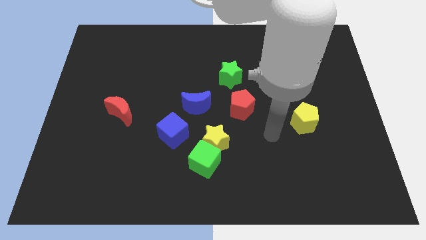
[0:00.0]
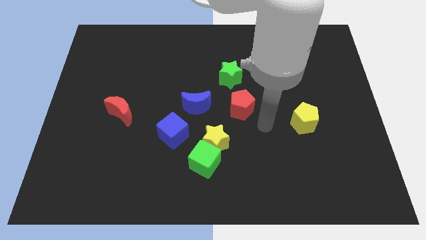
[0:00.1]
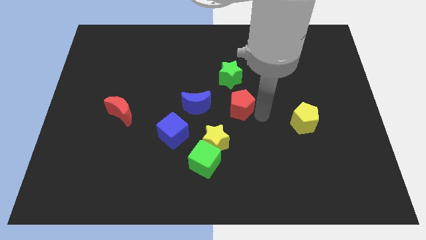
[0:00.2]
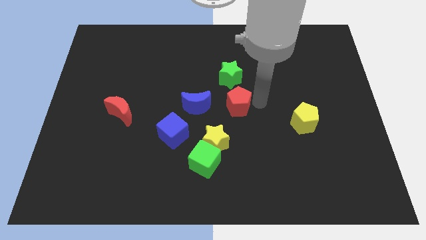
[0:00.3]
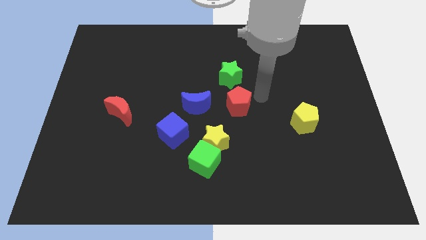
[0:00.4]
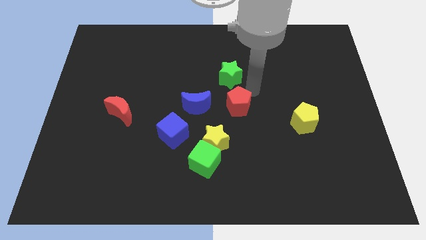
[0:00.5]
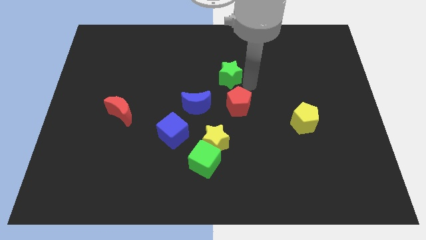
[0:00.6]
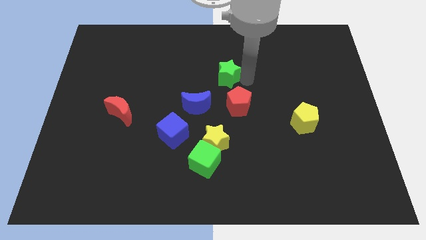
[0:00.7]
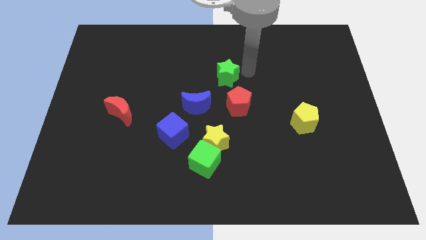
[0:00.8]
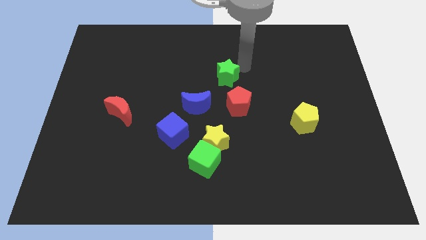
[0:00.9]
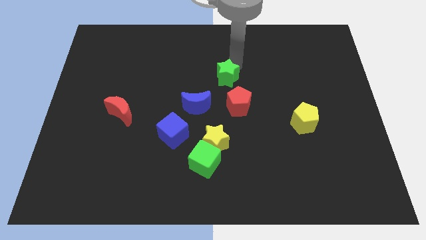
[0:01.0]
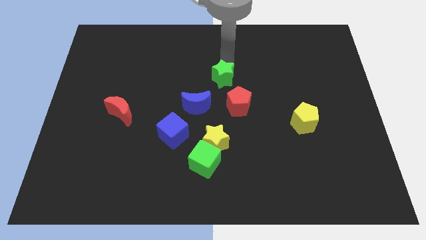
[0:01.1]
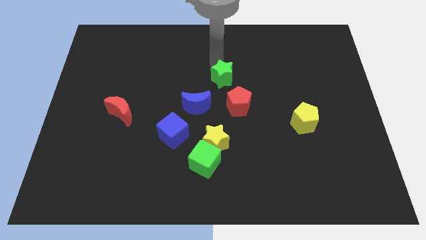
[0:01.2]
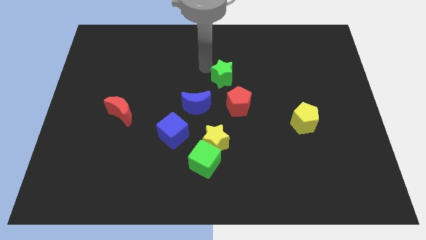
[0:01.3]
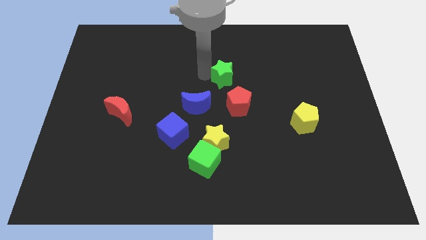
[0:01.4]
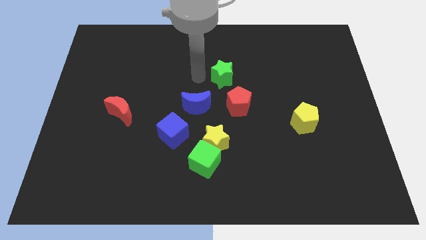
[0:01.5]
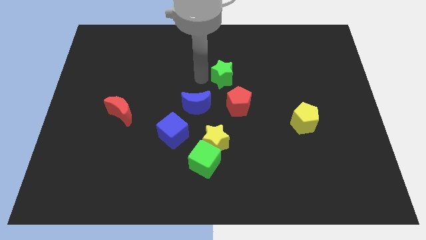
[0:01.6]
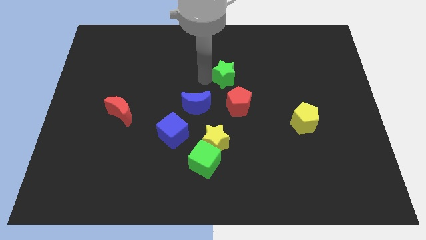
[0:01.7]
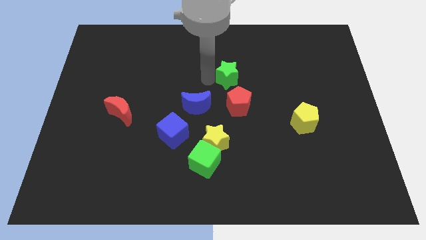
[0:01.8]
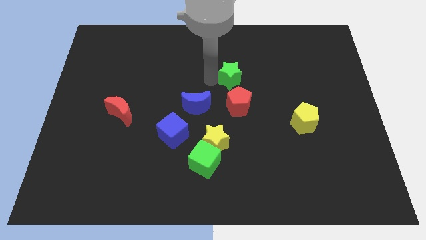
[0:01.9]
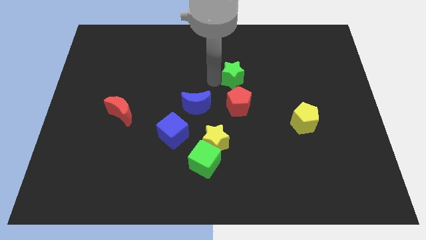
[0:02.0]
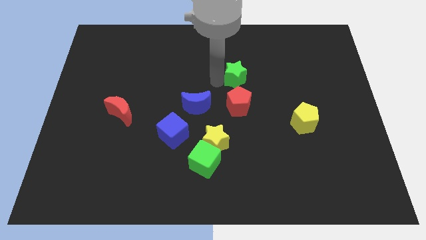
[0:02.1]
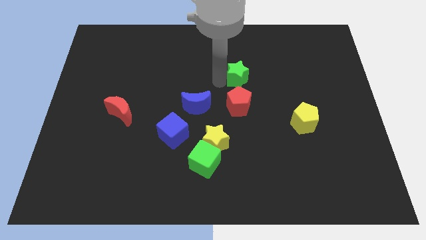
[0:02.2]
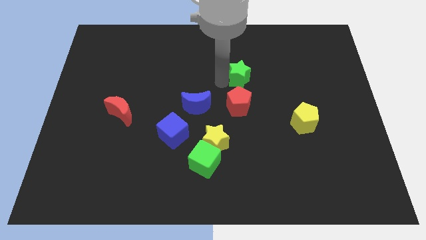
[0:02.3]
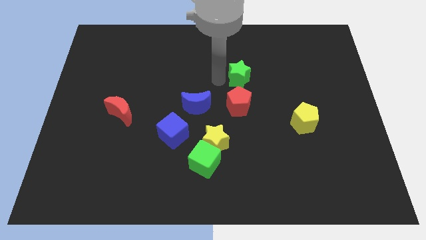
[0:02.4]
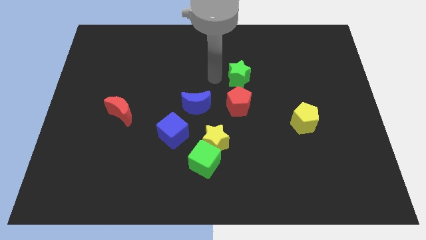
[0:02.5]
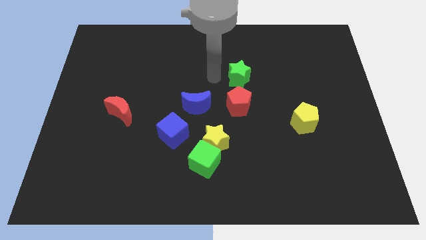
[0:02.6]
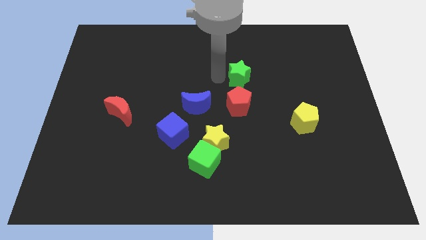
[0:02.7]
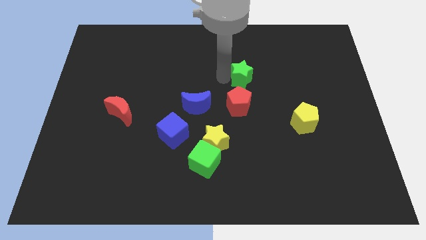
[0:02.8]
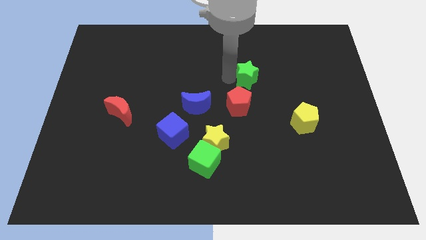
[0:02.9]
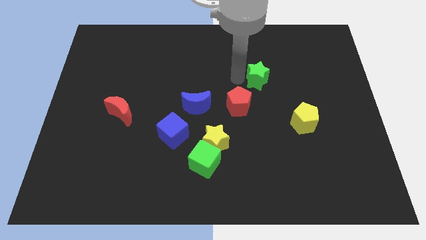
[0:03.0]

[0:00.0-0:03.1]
slide the green star right slightly

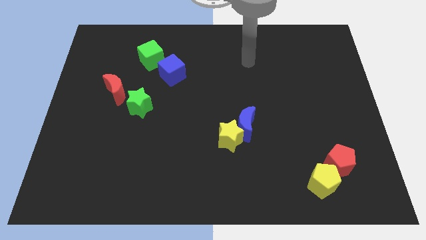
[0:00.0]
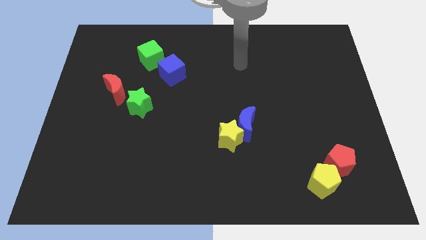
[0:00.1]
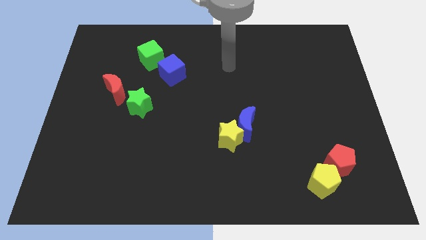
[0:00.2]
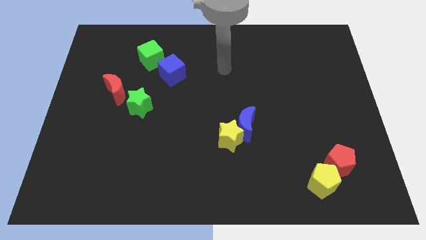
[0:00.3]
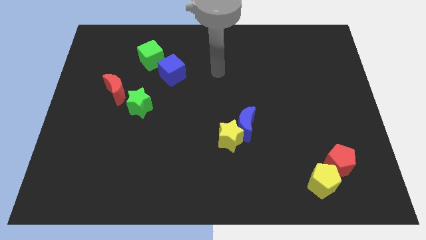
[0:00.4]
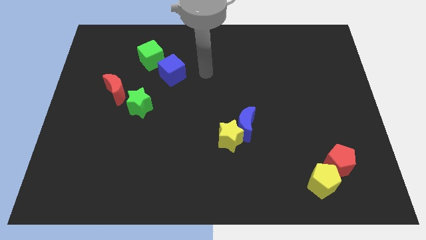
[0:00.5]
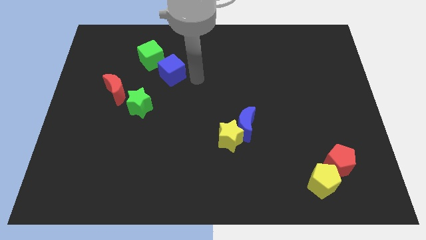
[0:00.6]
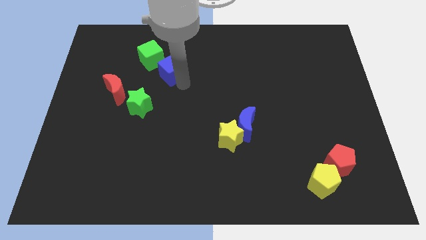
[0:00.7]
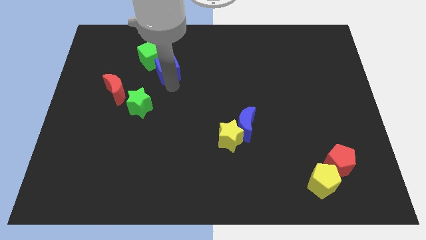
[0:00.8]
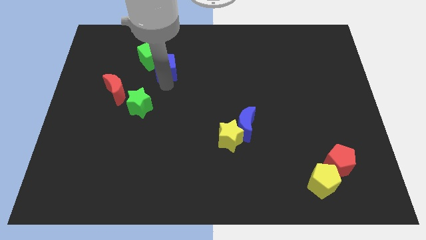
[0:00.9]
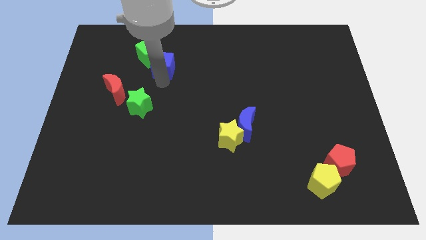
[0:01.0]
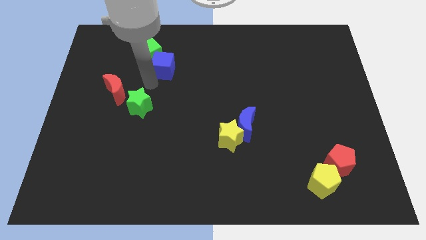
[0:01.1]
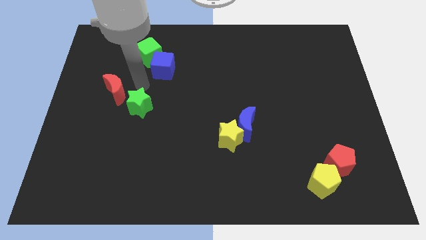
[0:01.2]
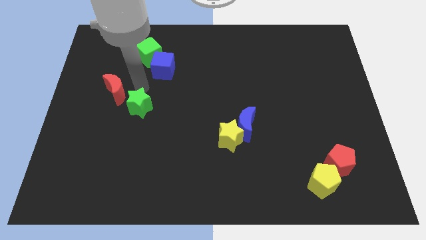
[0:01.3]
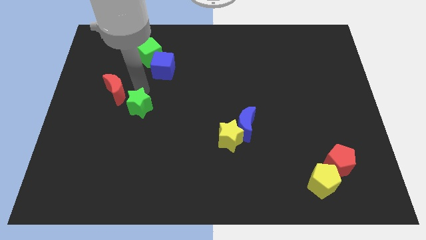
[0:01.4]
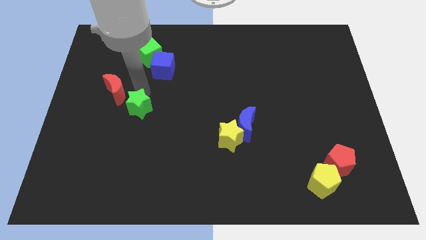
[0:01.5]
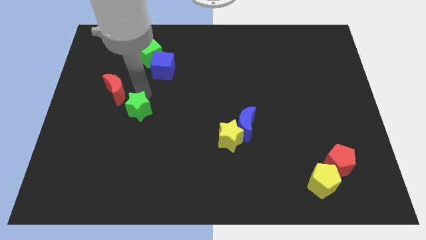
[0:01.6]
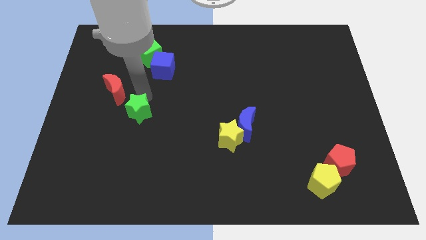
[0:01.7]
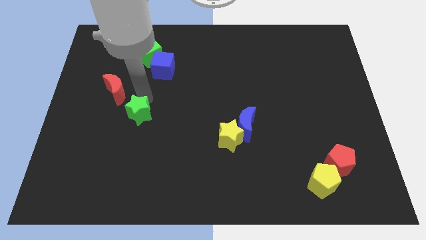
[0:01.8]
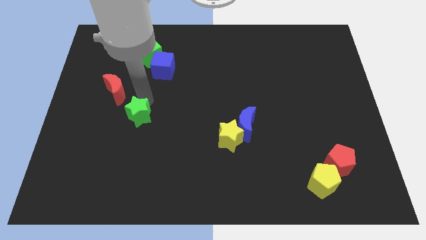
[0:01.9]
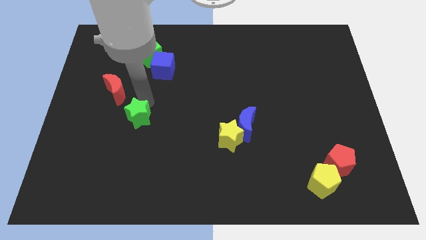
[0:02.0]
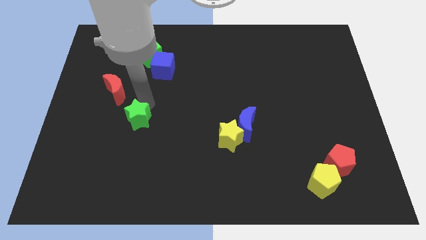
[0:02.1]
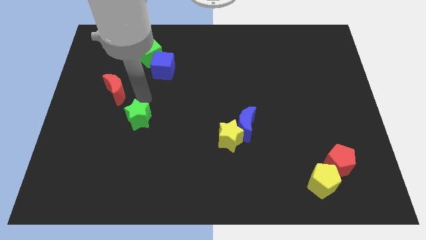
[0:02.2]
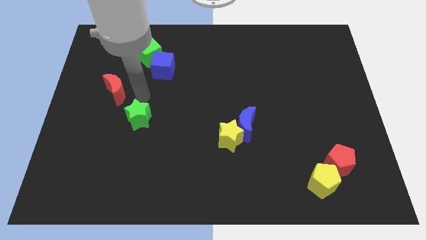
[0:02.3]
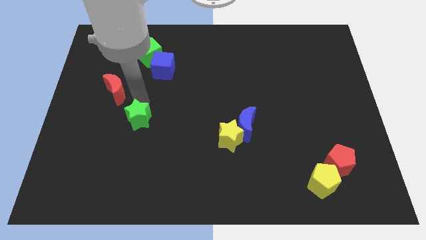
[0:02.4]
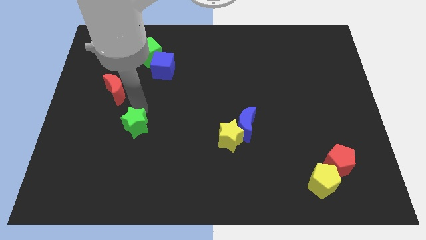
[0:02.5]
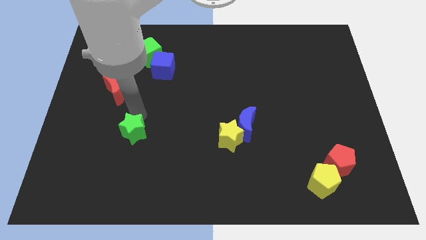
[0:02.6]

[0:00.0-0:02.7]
push the green star a little bit downwards

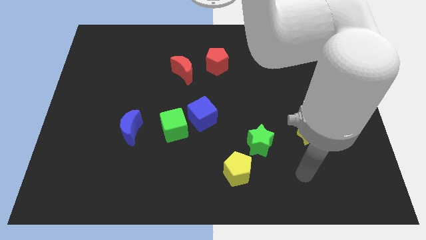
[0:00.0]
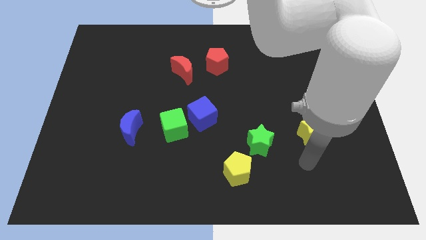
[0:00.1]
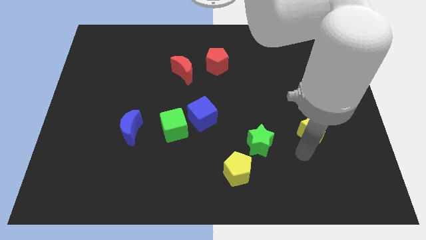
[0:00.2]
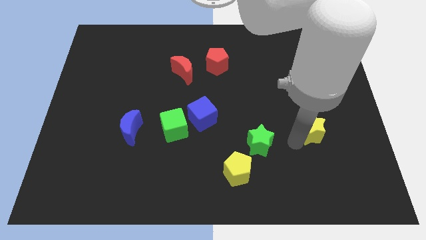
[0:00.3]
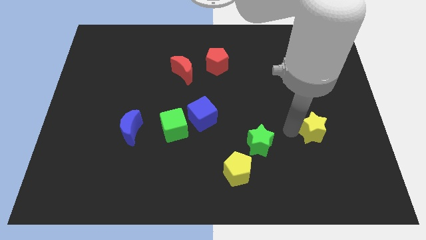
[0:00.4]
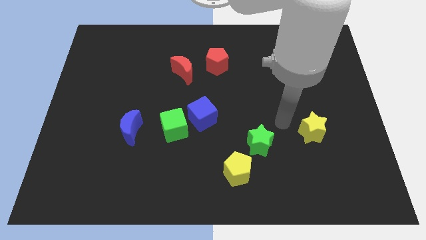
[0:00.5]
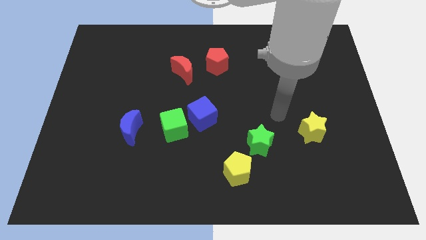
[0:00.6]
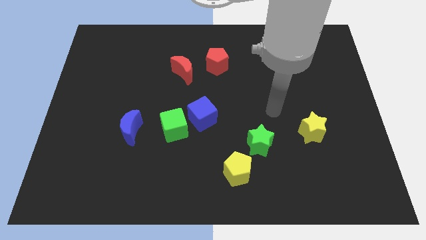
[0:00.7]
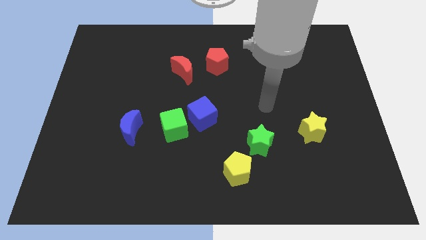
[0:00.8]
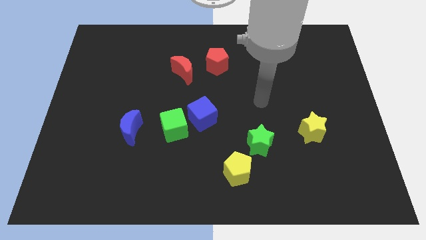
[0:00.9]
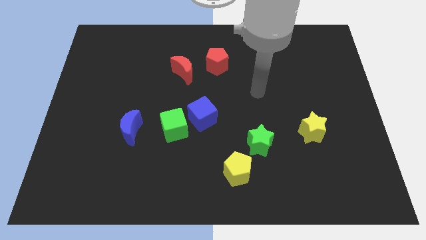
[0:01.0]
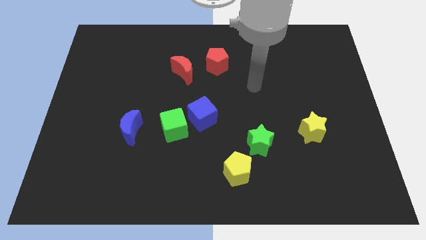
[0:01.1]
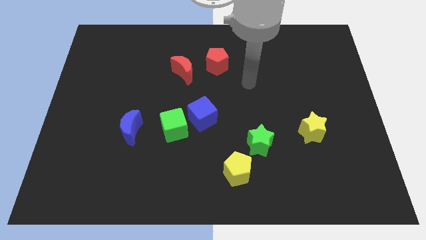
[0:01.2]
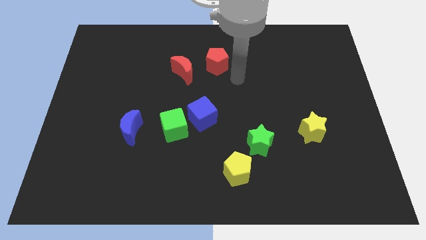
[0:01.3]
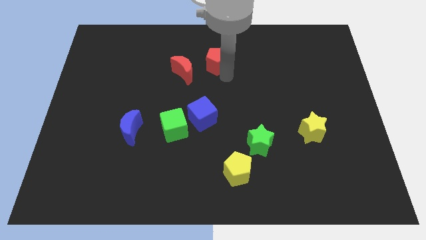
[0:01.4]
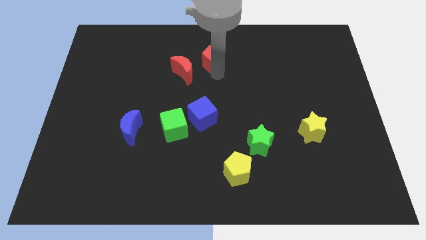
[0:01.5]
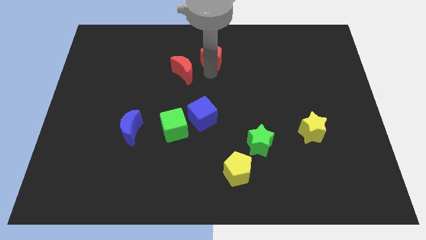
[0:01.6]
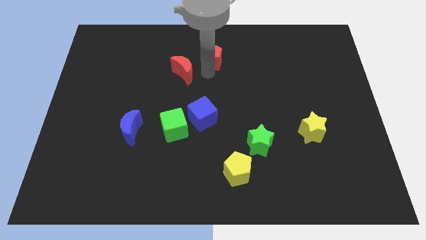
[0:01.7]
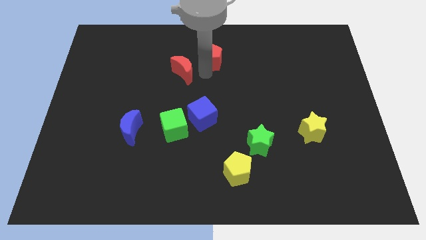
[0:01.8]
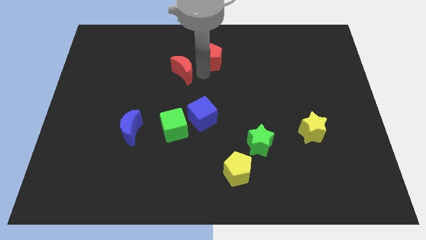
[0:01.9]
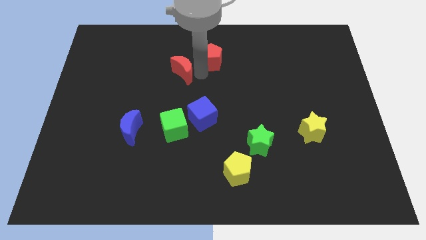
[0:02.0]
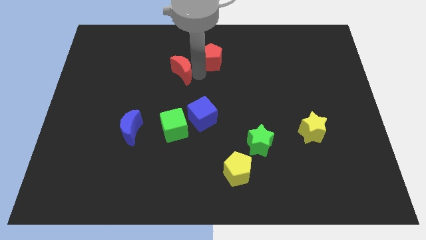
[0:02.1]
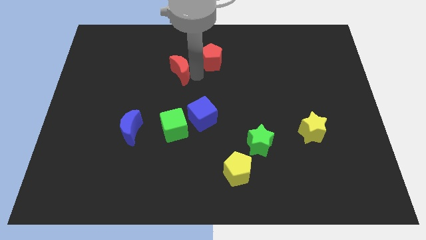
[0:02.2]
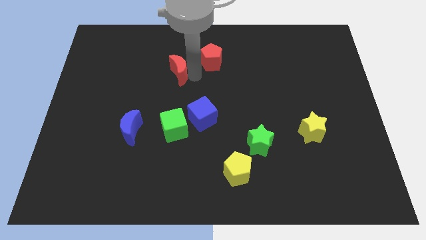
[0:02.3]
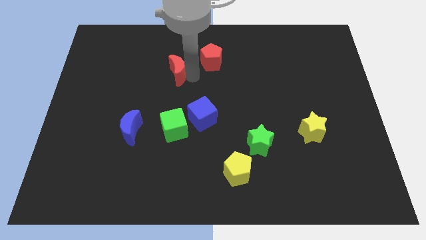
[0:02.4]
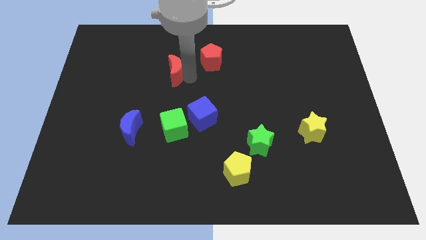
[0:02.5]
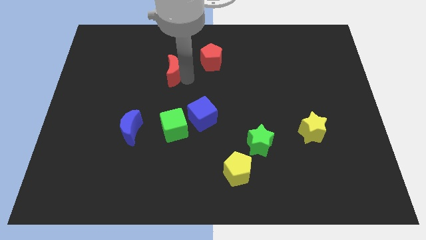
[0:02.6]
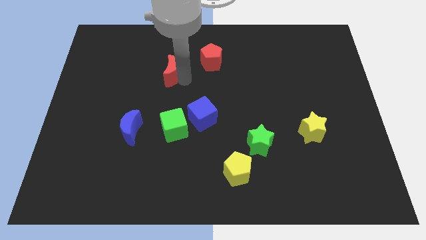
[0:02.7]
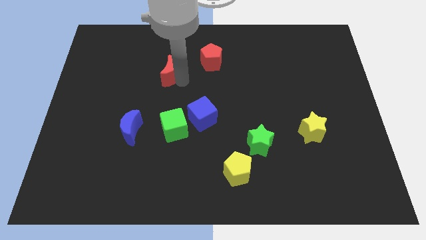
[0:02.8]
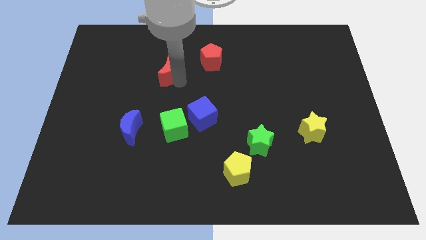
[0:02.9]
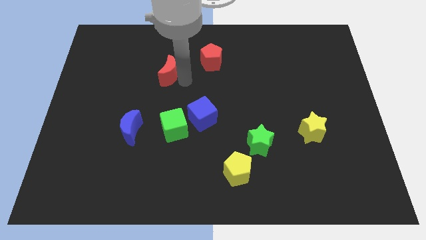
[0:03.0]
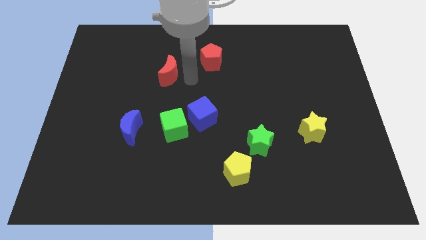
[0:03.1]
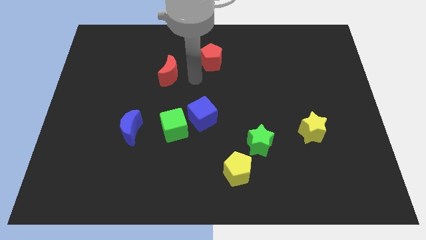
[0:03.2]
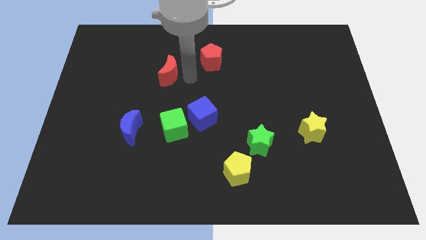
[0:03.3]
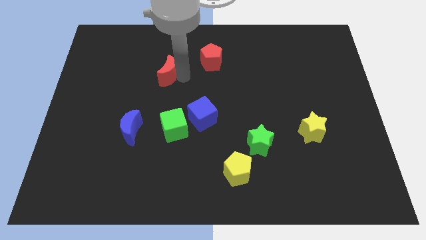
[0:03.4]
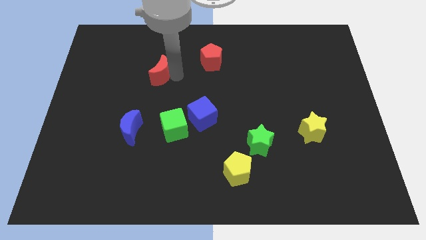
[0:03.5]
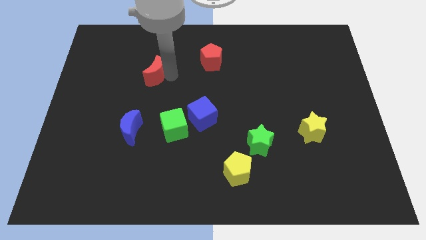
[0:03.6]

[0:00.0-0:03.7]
slightly push the red moon to the left
